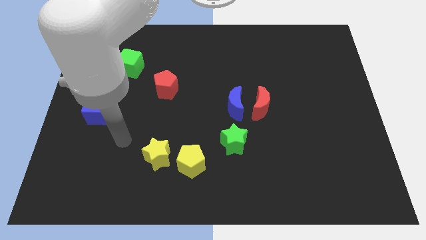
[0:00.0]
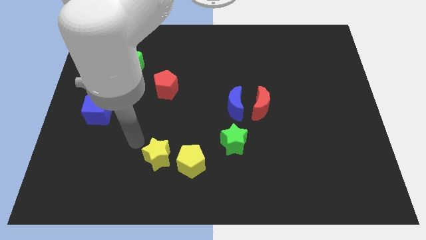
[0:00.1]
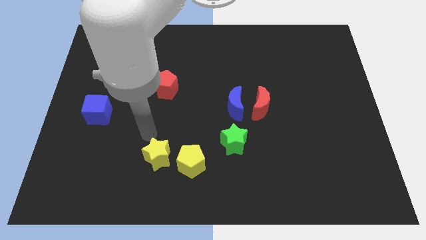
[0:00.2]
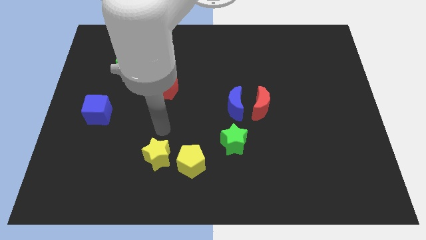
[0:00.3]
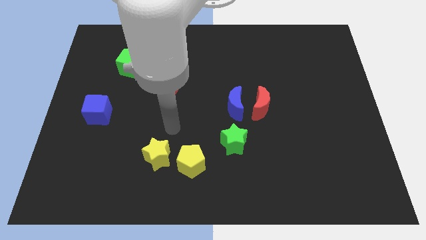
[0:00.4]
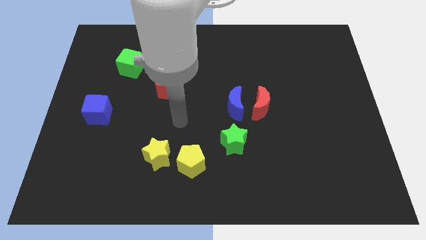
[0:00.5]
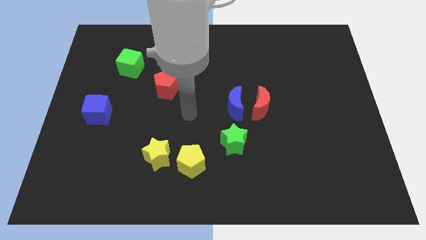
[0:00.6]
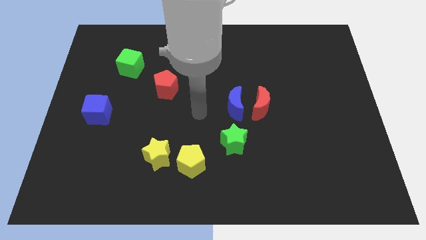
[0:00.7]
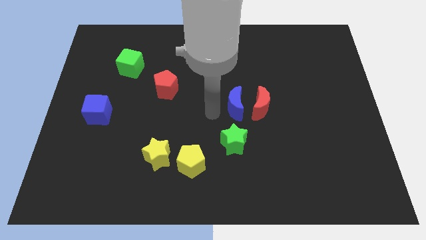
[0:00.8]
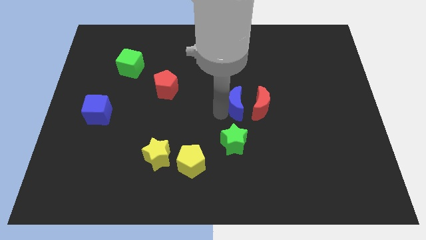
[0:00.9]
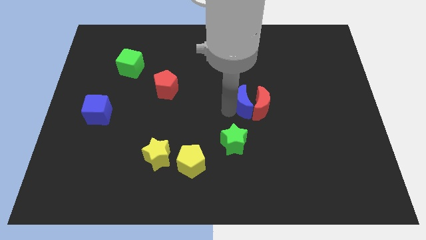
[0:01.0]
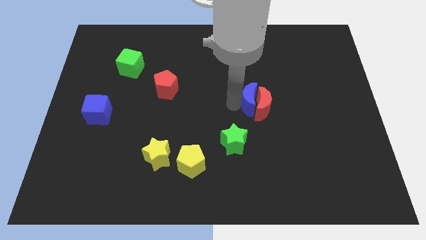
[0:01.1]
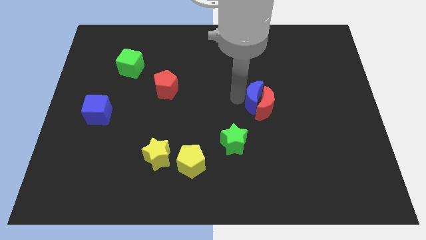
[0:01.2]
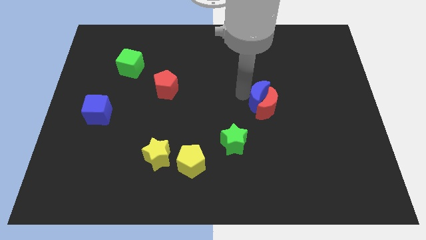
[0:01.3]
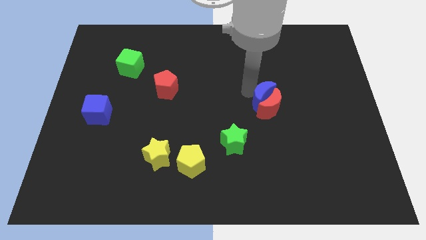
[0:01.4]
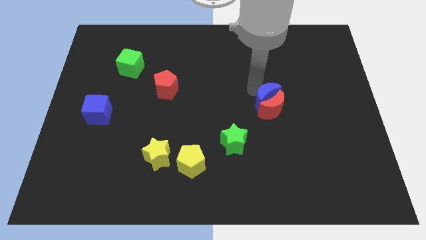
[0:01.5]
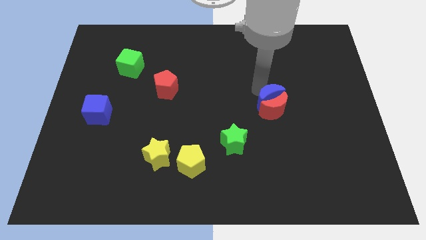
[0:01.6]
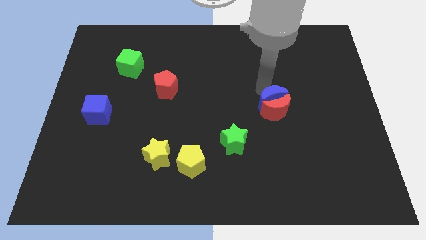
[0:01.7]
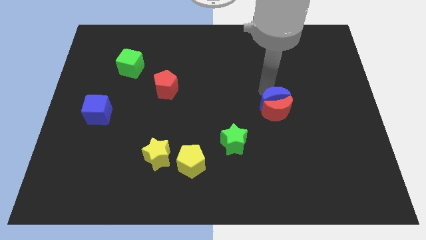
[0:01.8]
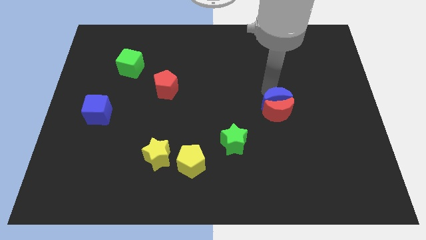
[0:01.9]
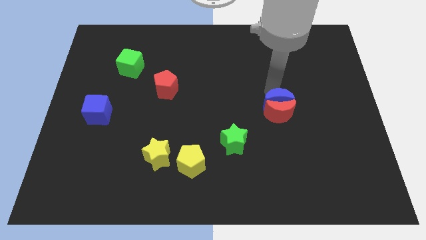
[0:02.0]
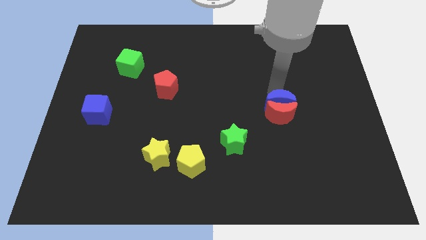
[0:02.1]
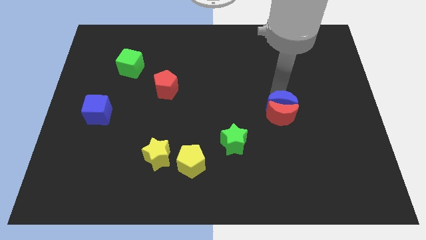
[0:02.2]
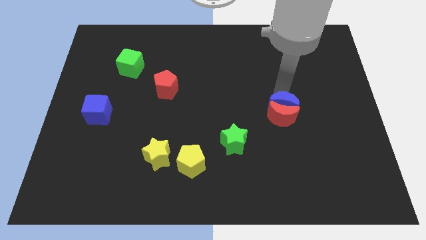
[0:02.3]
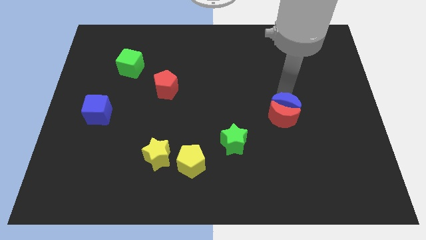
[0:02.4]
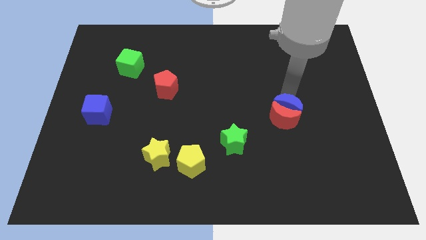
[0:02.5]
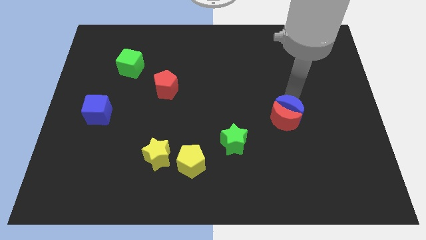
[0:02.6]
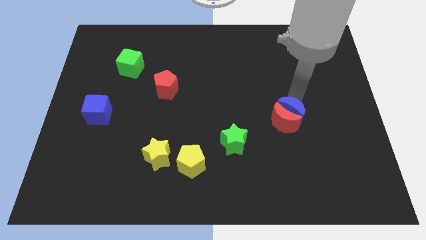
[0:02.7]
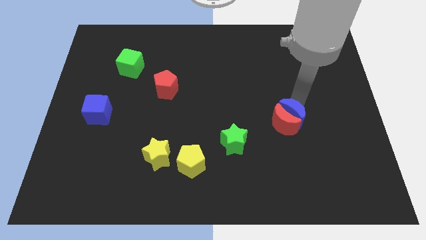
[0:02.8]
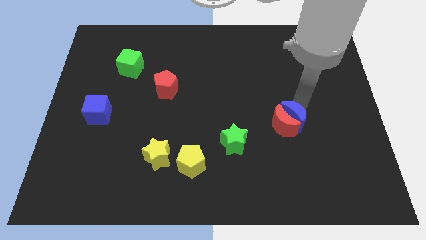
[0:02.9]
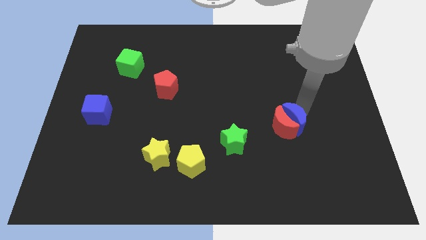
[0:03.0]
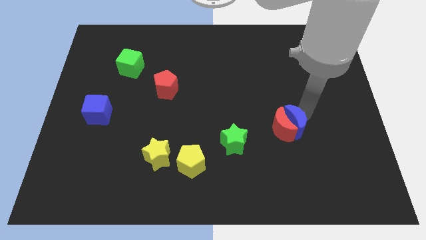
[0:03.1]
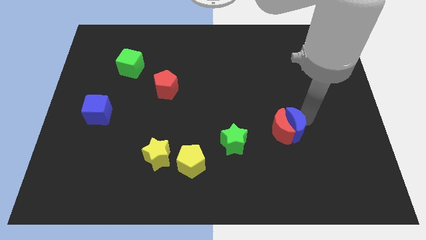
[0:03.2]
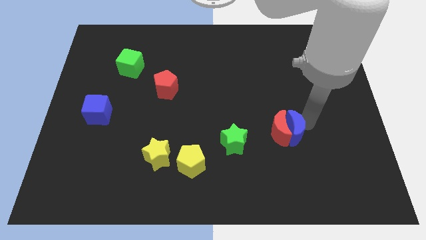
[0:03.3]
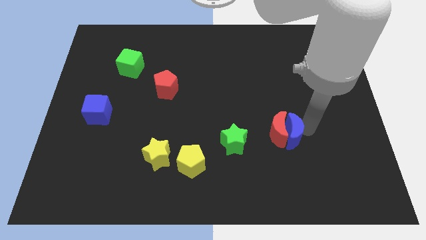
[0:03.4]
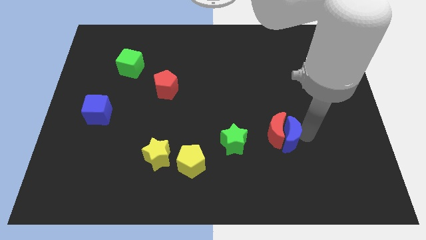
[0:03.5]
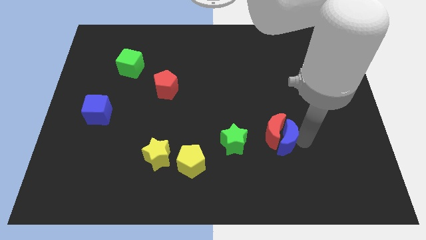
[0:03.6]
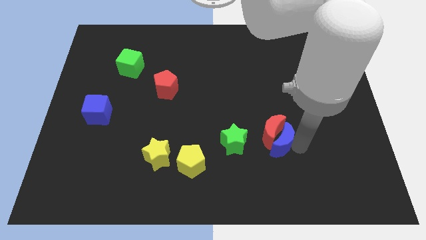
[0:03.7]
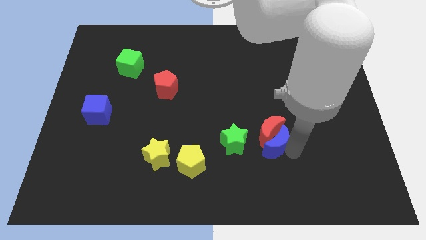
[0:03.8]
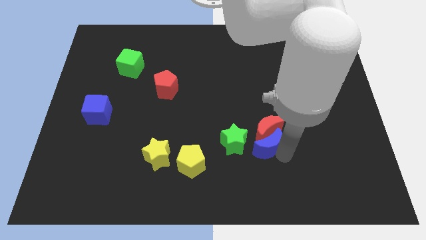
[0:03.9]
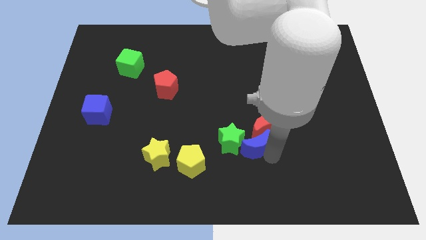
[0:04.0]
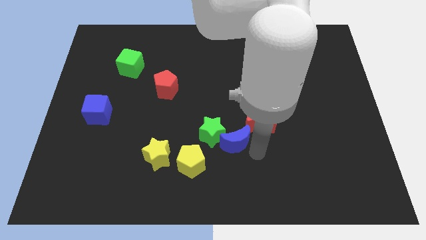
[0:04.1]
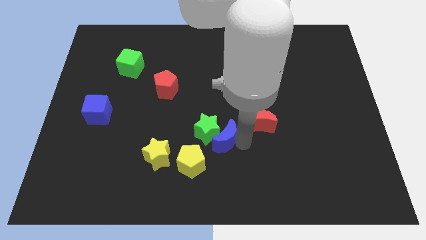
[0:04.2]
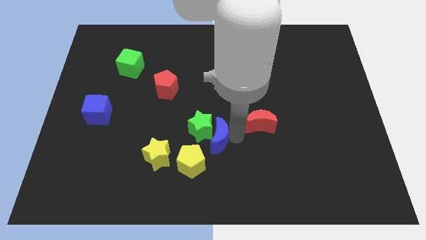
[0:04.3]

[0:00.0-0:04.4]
move the red moon away from the blue moon

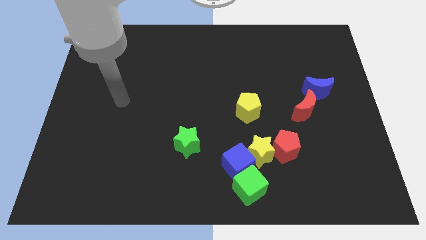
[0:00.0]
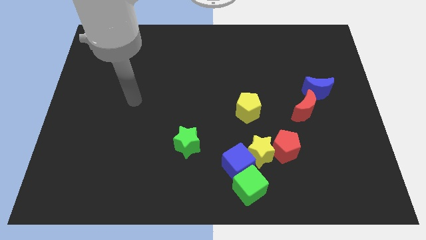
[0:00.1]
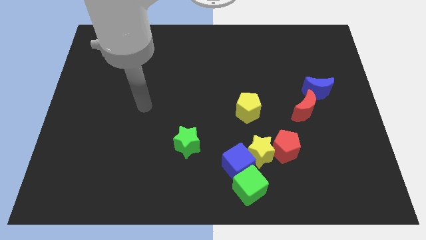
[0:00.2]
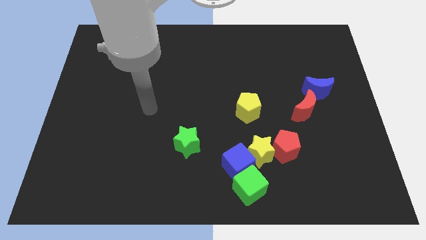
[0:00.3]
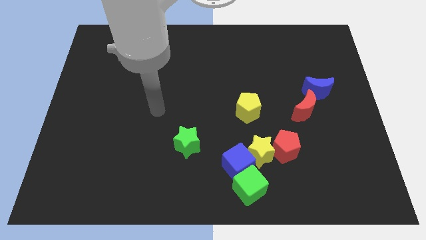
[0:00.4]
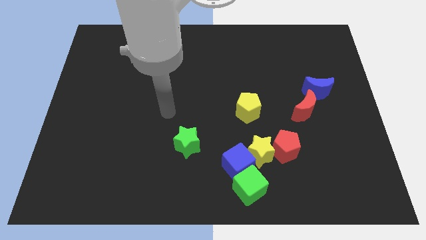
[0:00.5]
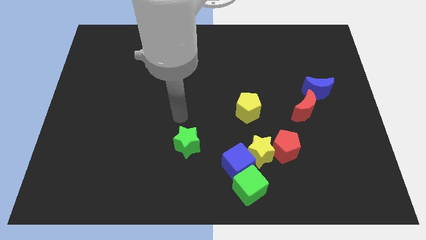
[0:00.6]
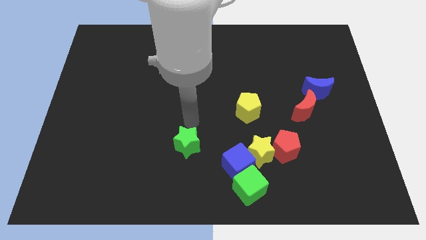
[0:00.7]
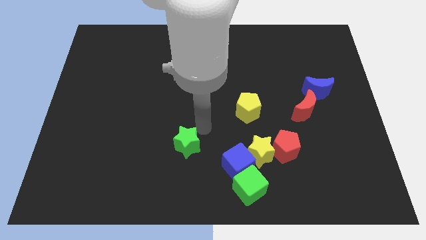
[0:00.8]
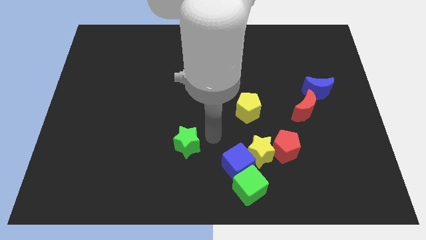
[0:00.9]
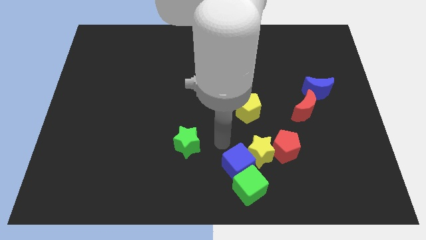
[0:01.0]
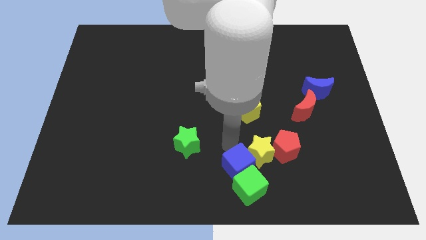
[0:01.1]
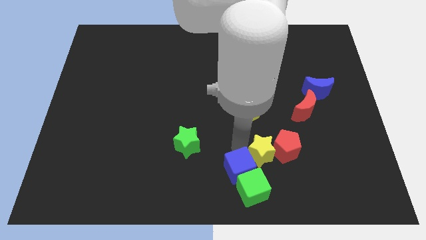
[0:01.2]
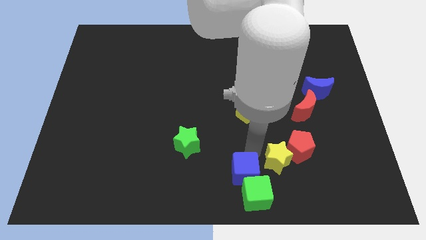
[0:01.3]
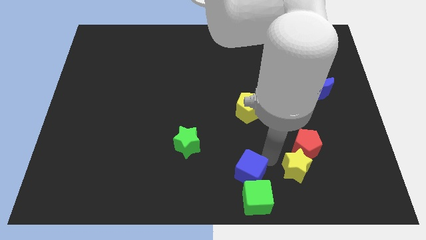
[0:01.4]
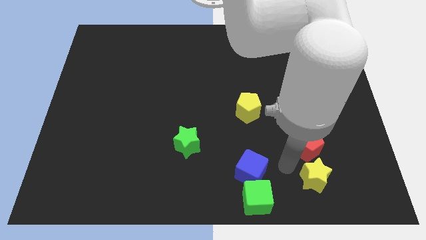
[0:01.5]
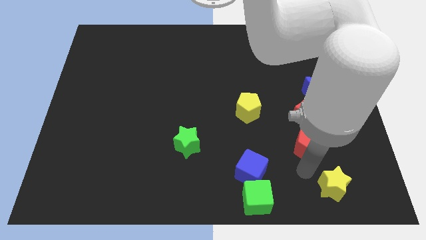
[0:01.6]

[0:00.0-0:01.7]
separate the red pentagon from the yellow star

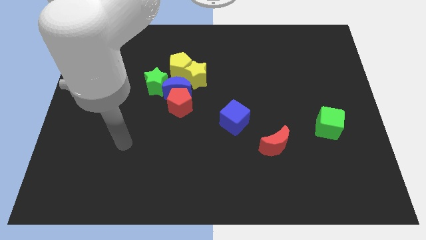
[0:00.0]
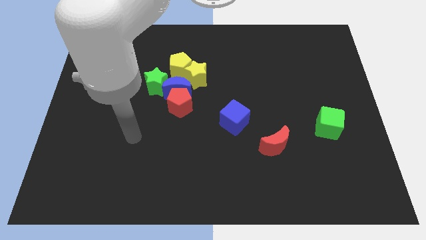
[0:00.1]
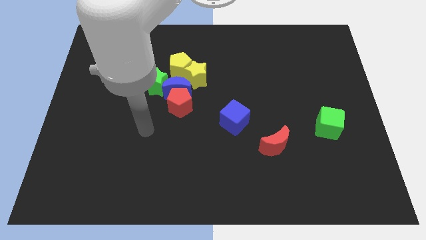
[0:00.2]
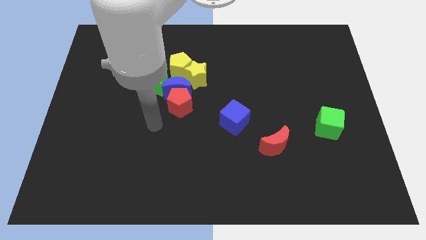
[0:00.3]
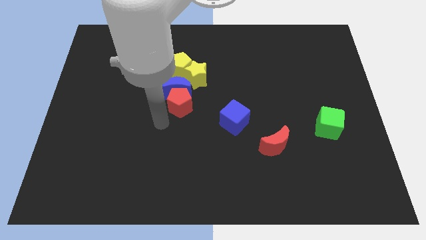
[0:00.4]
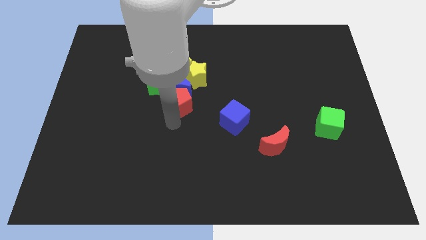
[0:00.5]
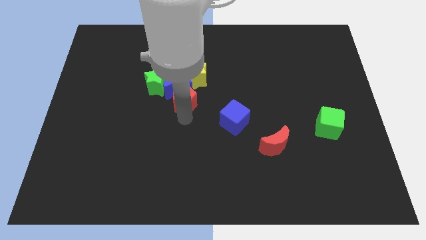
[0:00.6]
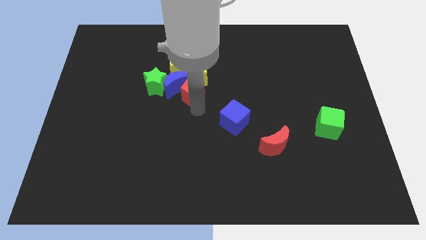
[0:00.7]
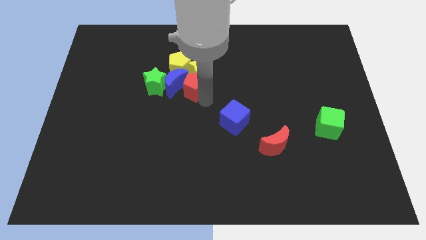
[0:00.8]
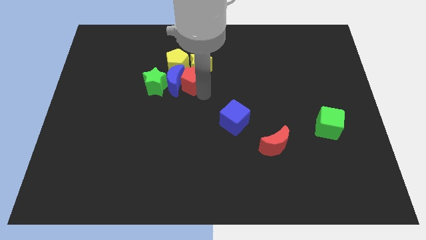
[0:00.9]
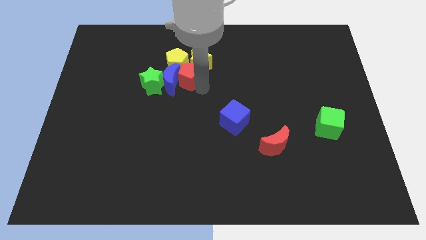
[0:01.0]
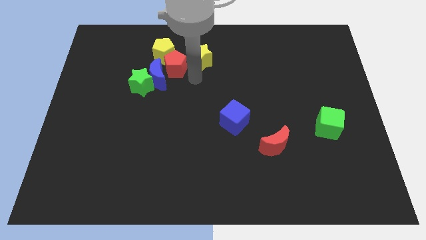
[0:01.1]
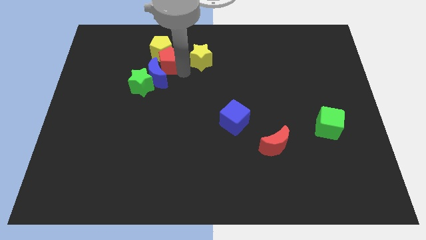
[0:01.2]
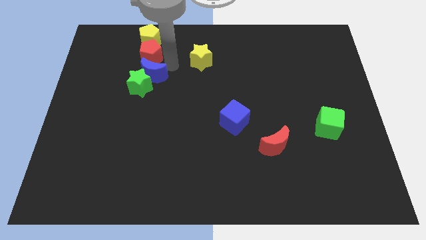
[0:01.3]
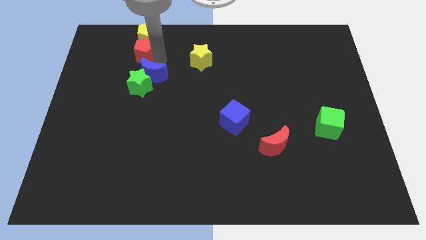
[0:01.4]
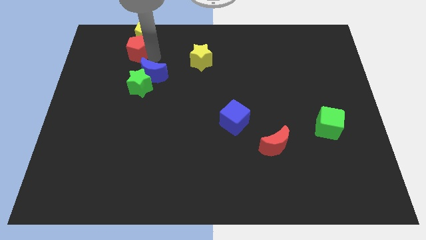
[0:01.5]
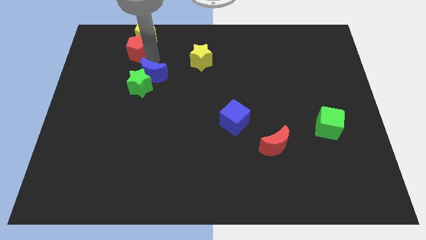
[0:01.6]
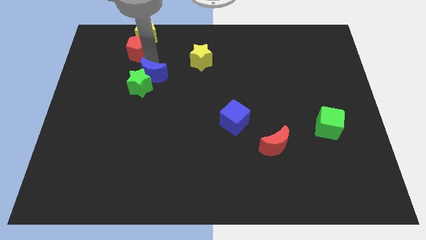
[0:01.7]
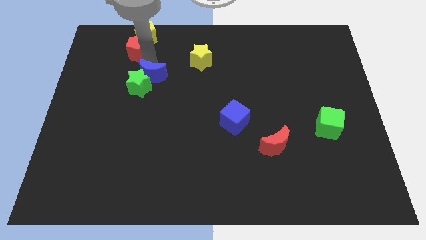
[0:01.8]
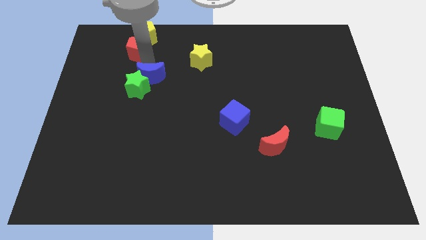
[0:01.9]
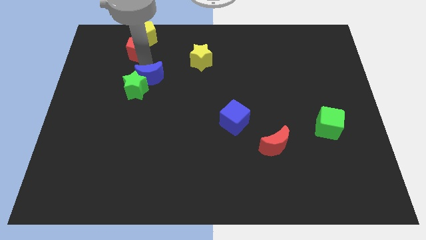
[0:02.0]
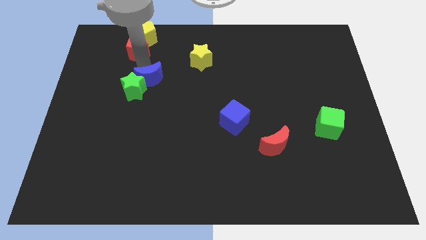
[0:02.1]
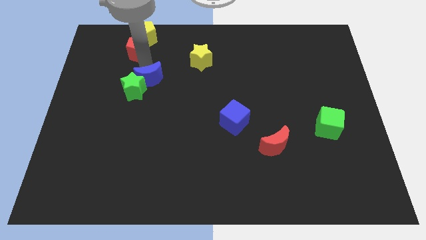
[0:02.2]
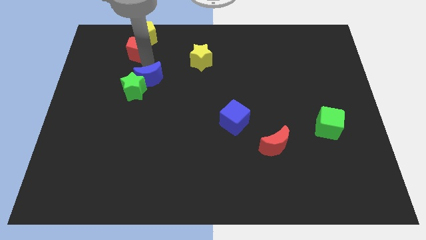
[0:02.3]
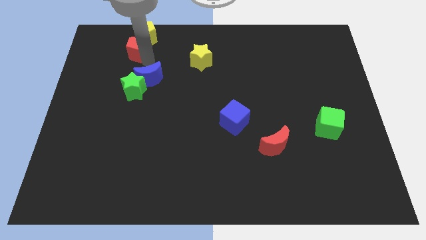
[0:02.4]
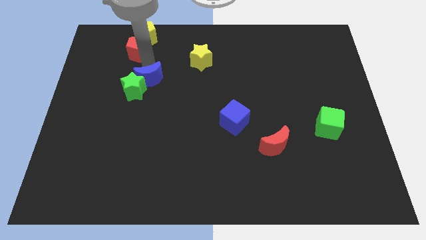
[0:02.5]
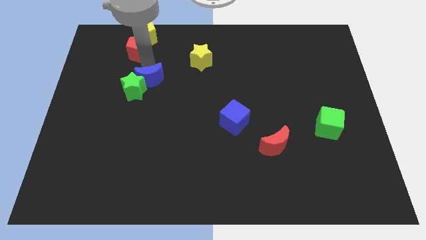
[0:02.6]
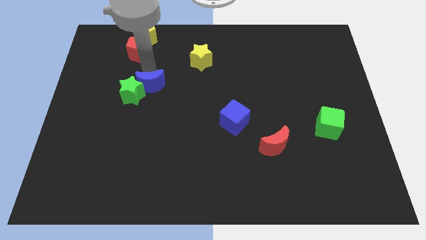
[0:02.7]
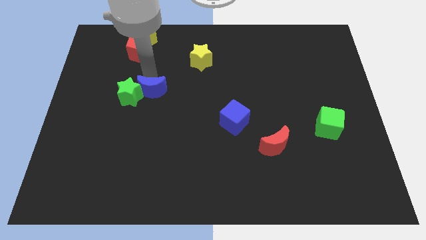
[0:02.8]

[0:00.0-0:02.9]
move the blue moon away from the group of blocks

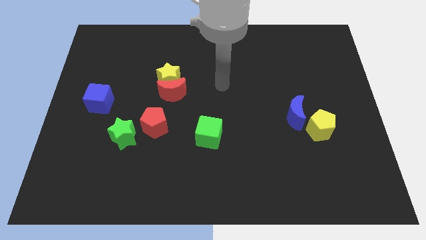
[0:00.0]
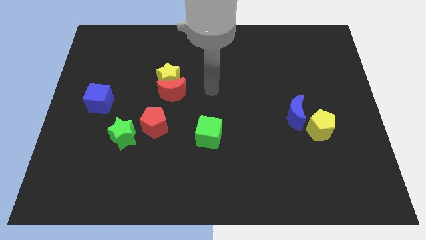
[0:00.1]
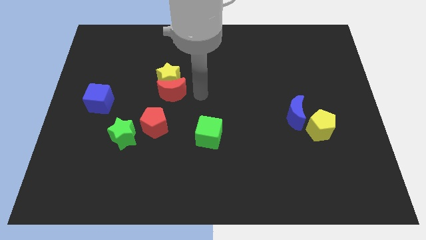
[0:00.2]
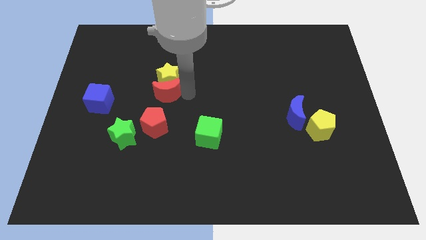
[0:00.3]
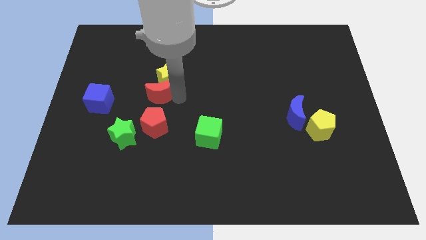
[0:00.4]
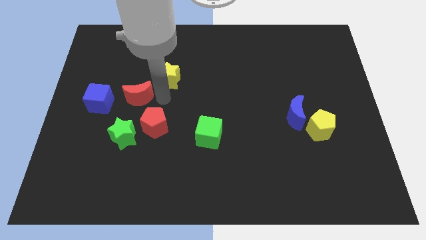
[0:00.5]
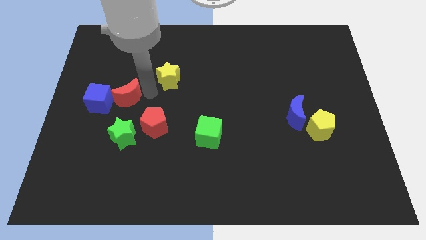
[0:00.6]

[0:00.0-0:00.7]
move the yellow star away from the red moon
